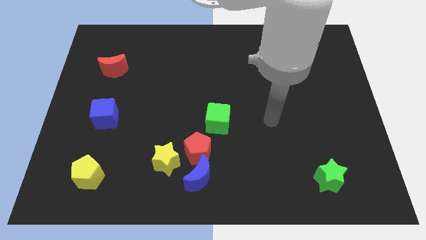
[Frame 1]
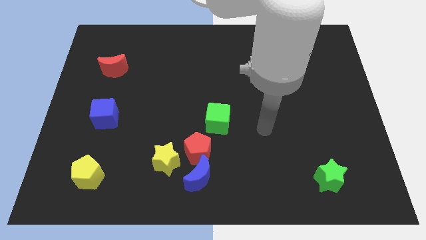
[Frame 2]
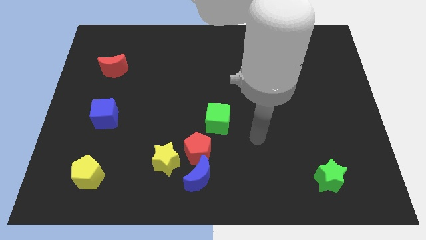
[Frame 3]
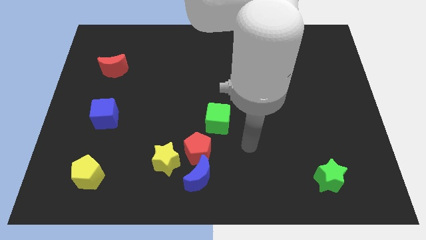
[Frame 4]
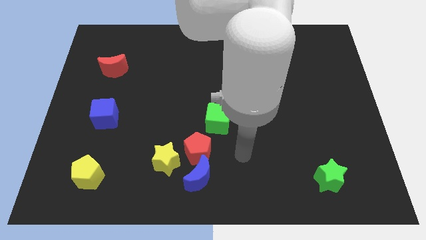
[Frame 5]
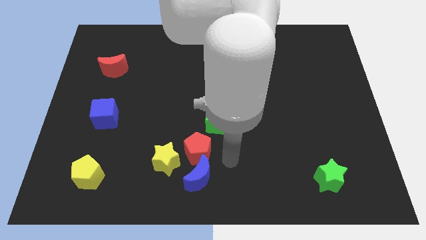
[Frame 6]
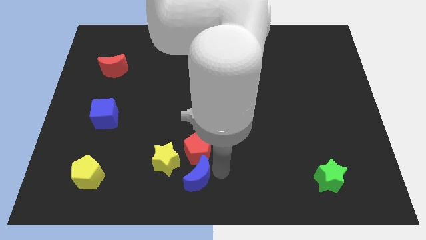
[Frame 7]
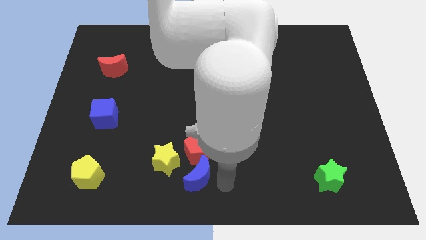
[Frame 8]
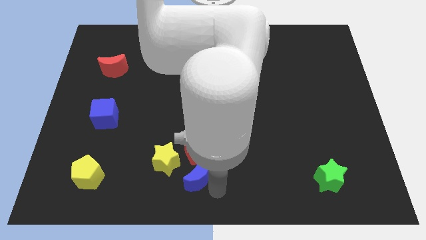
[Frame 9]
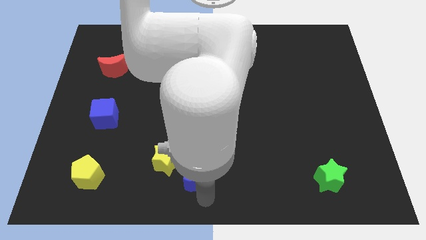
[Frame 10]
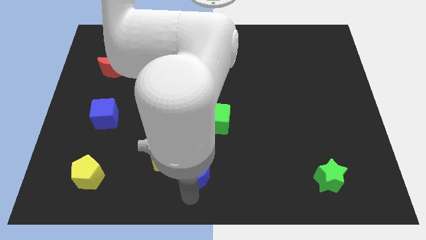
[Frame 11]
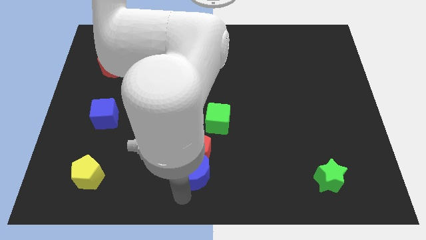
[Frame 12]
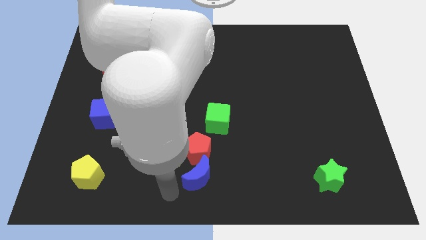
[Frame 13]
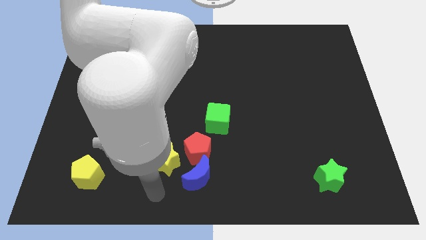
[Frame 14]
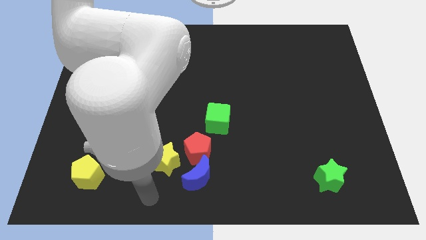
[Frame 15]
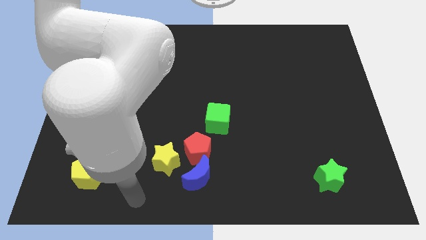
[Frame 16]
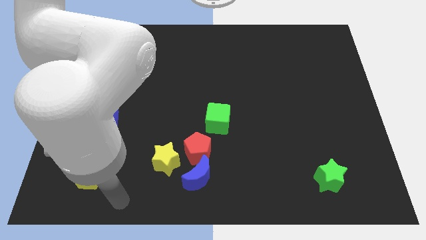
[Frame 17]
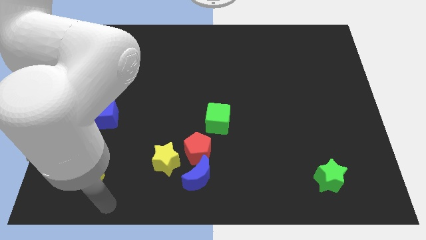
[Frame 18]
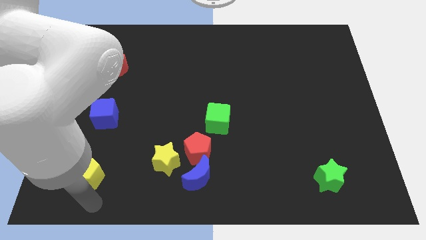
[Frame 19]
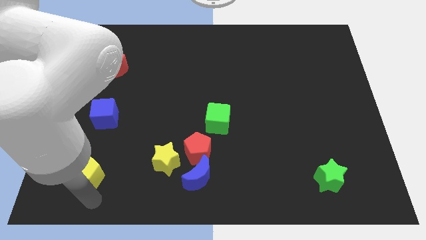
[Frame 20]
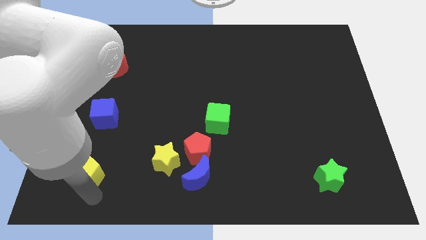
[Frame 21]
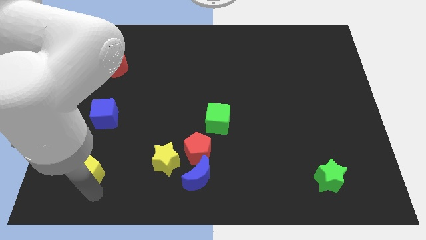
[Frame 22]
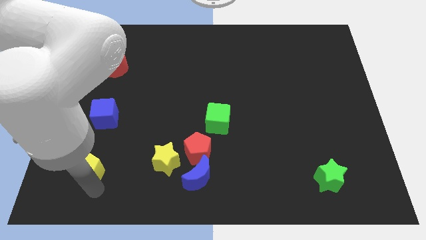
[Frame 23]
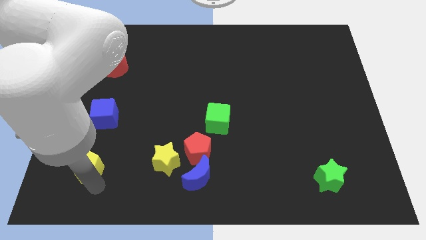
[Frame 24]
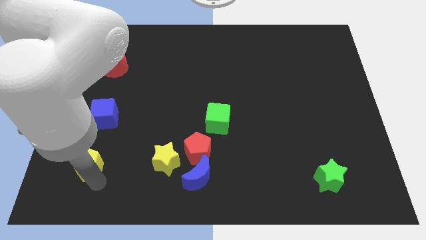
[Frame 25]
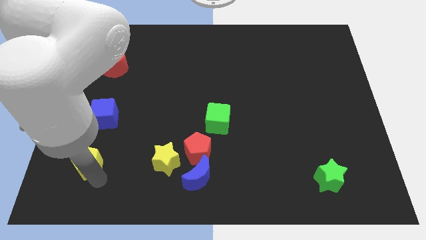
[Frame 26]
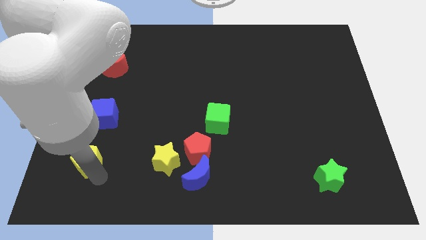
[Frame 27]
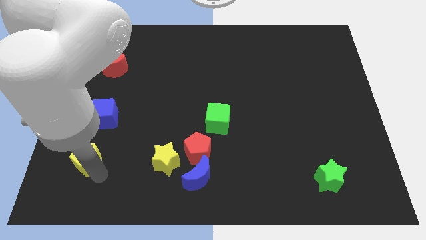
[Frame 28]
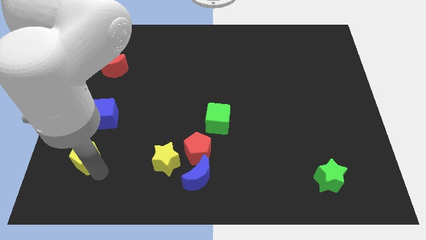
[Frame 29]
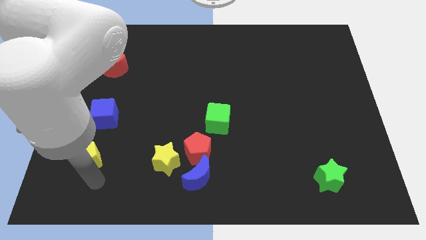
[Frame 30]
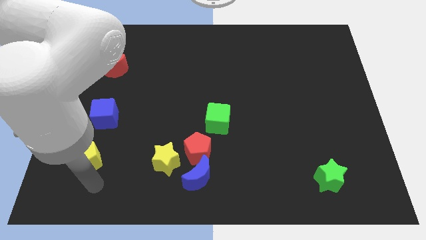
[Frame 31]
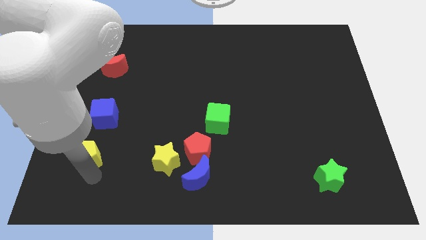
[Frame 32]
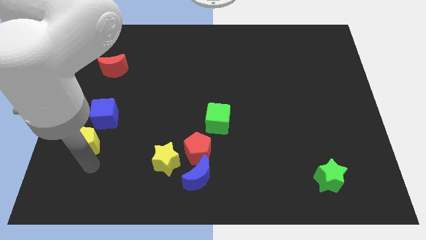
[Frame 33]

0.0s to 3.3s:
slightly push the yellow pentagon up

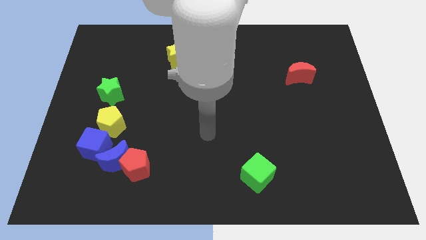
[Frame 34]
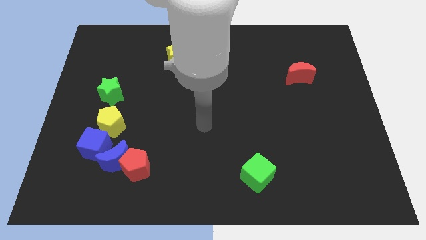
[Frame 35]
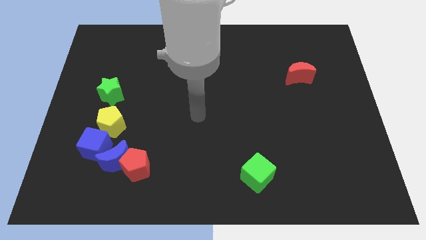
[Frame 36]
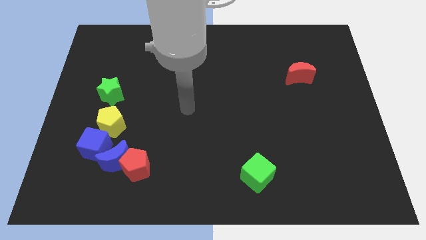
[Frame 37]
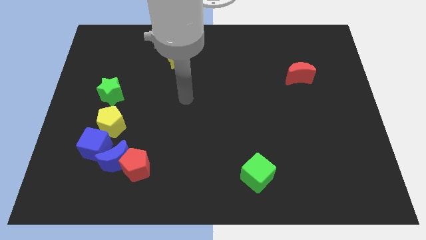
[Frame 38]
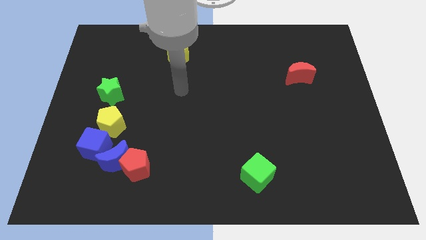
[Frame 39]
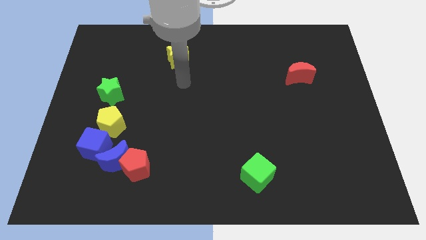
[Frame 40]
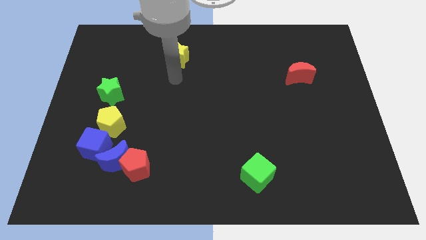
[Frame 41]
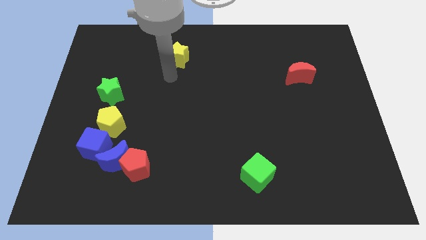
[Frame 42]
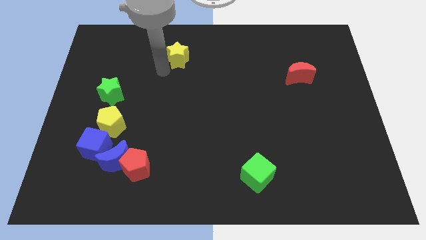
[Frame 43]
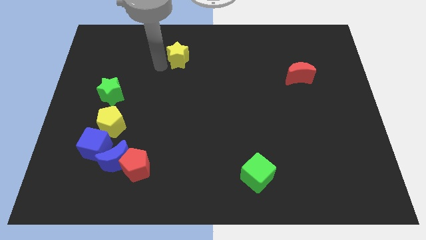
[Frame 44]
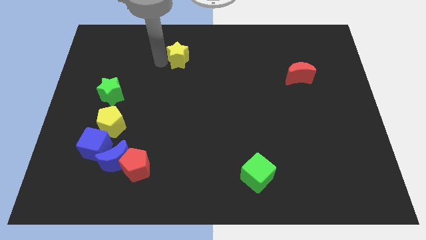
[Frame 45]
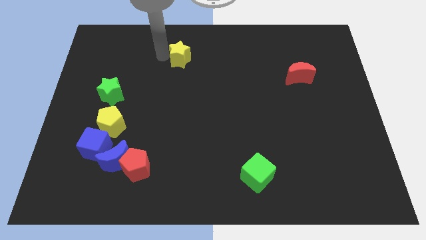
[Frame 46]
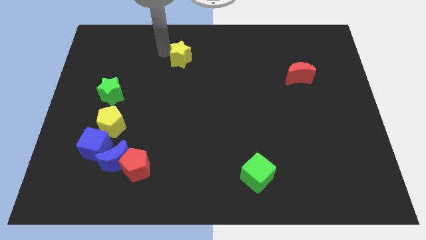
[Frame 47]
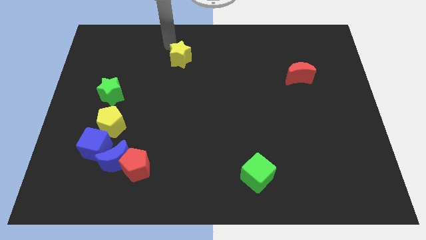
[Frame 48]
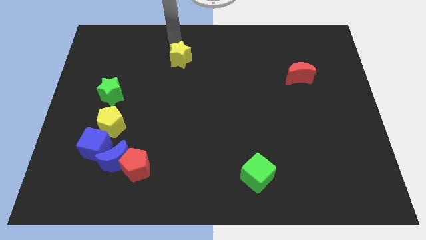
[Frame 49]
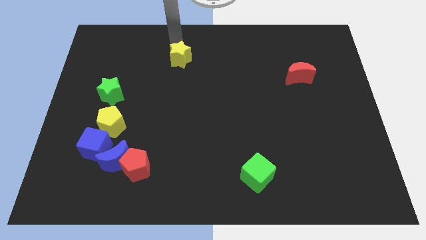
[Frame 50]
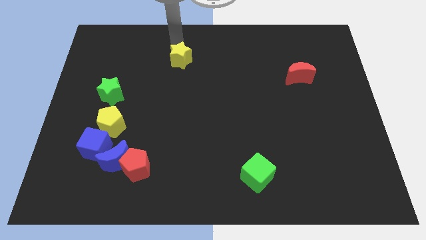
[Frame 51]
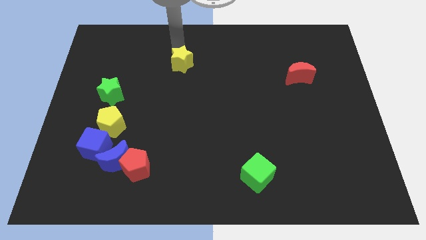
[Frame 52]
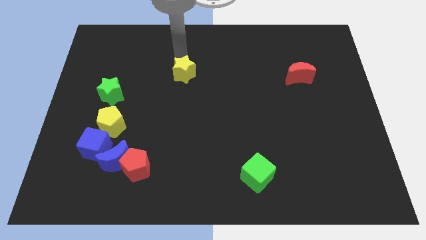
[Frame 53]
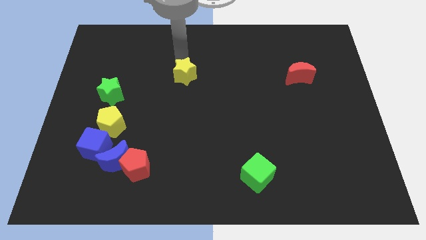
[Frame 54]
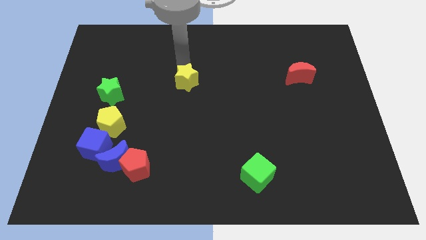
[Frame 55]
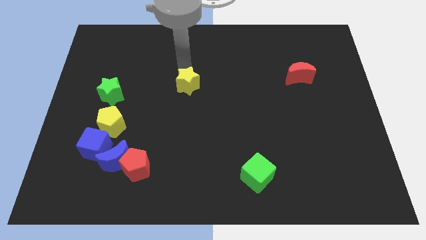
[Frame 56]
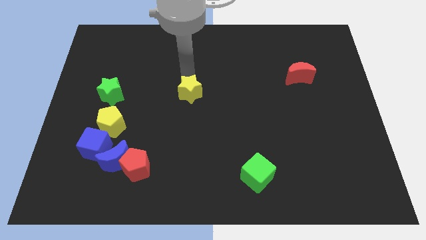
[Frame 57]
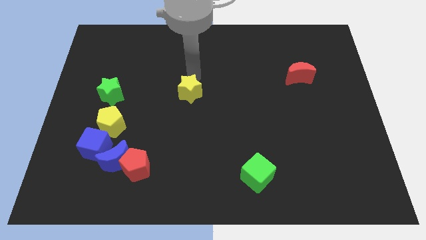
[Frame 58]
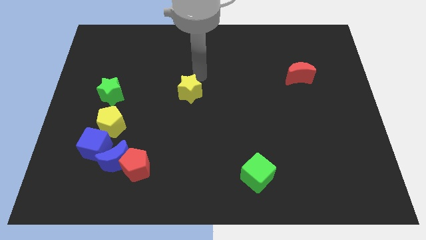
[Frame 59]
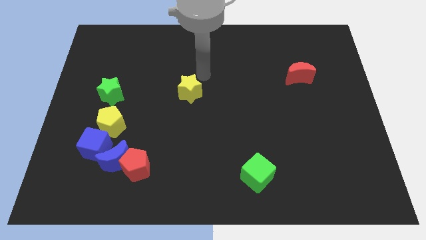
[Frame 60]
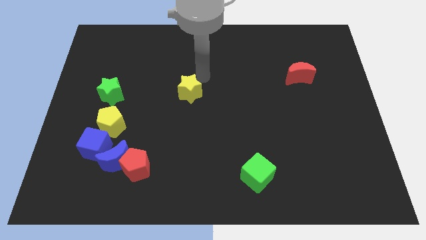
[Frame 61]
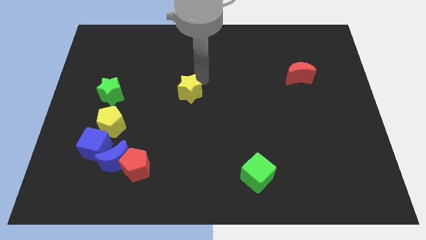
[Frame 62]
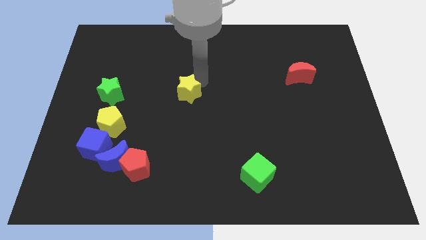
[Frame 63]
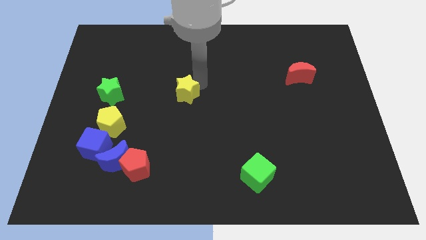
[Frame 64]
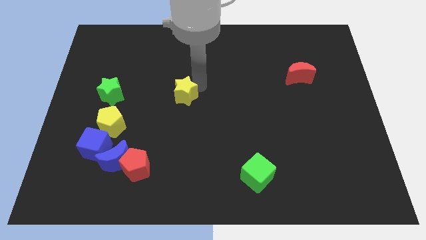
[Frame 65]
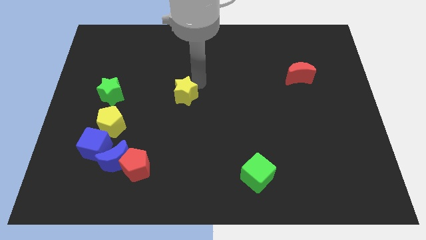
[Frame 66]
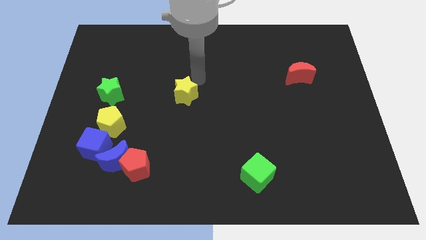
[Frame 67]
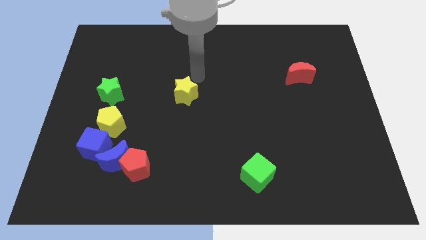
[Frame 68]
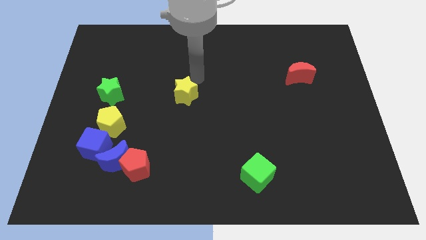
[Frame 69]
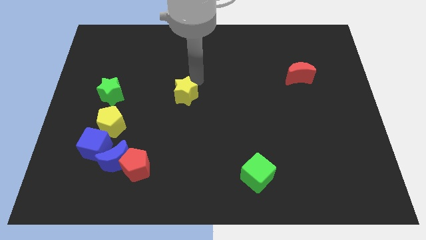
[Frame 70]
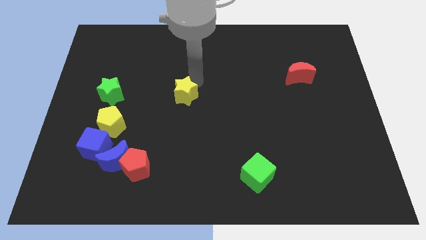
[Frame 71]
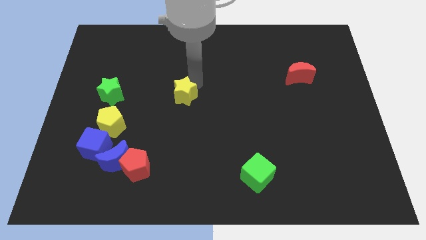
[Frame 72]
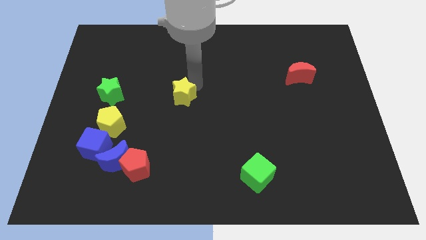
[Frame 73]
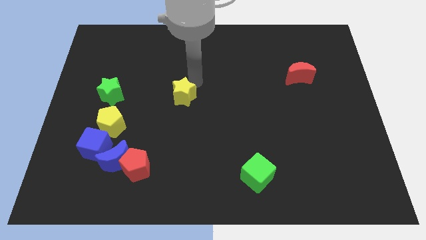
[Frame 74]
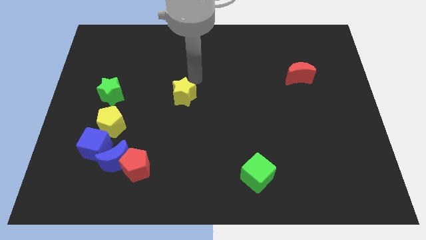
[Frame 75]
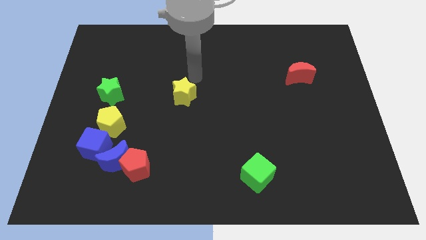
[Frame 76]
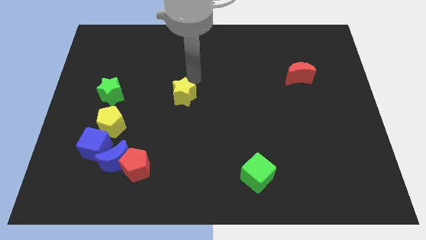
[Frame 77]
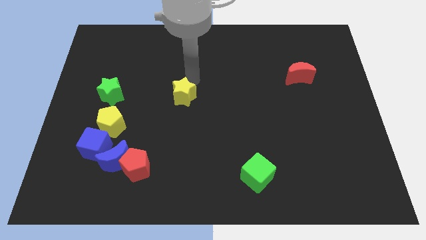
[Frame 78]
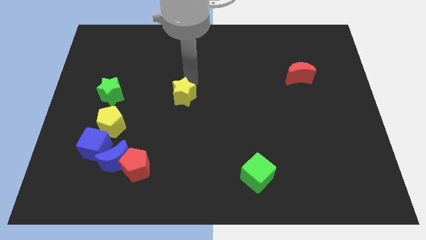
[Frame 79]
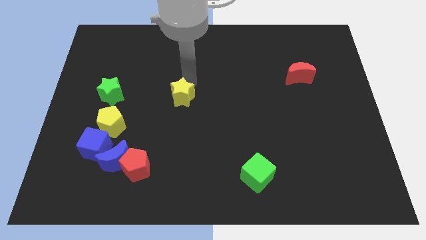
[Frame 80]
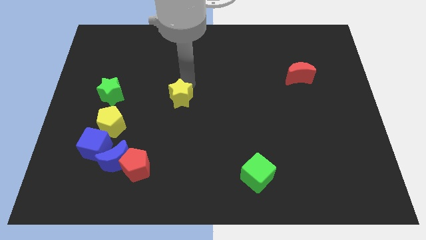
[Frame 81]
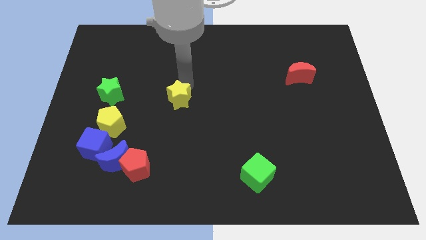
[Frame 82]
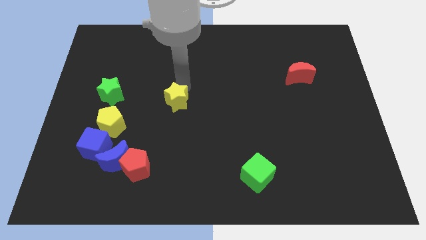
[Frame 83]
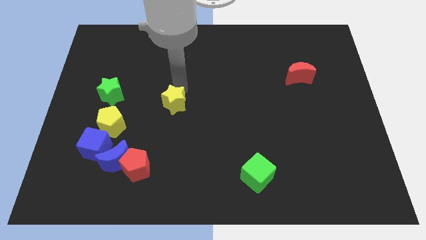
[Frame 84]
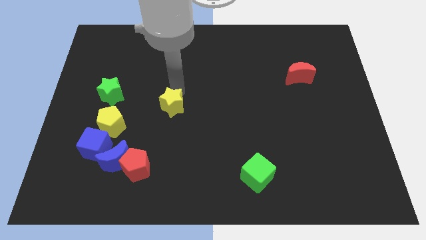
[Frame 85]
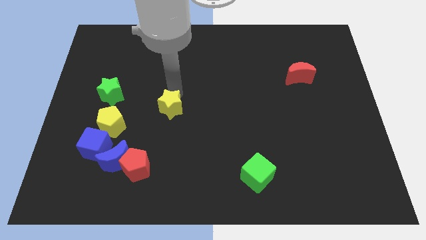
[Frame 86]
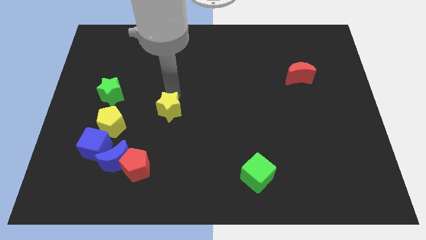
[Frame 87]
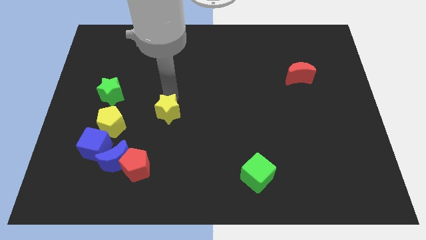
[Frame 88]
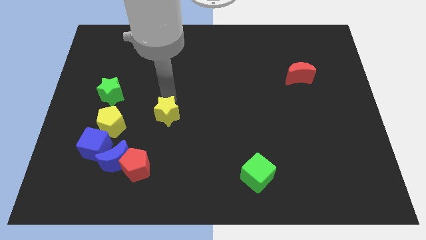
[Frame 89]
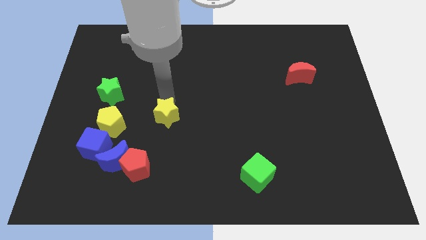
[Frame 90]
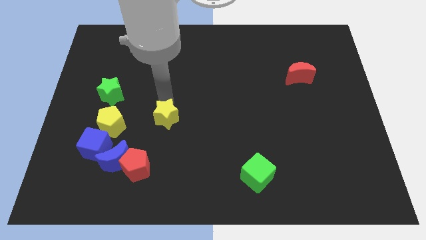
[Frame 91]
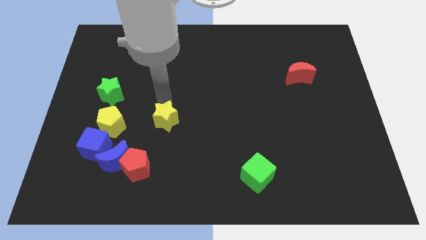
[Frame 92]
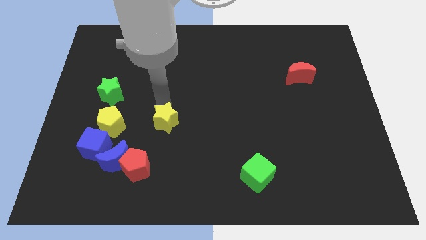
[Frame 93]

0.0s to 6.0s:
slide the yellow star downwards
